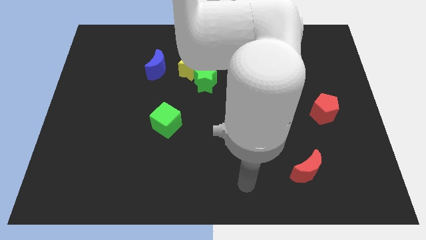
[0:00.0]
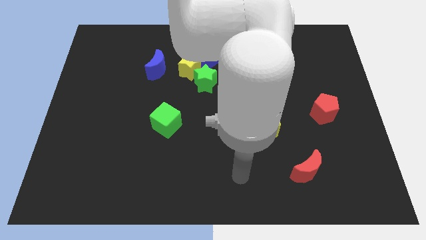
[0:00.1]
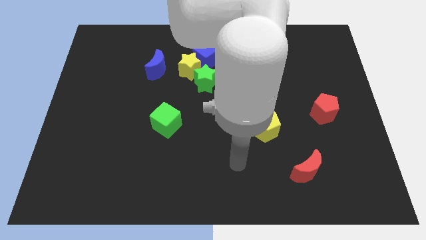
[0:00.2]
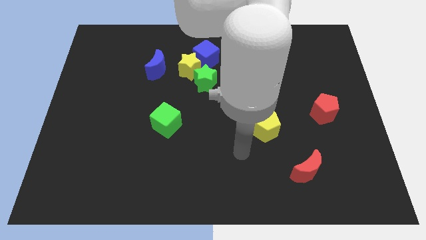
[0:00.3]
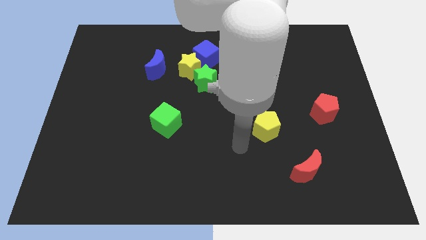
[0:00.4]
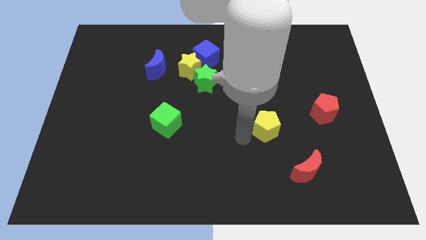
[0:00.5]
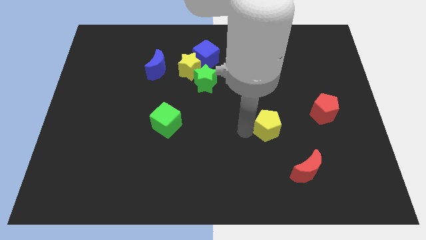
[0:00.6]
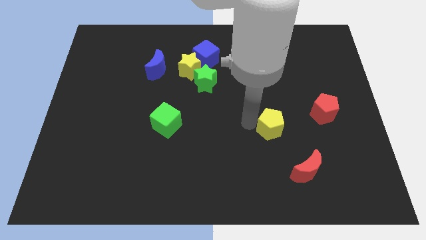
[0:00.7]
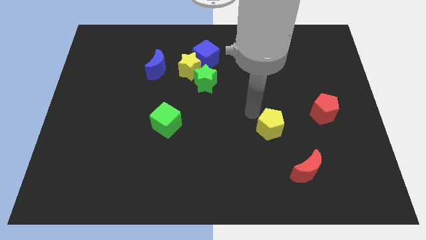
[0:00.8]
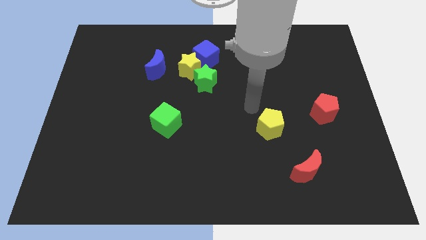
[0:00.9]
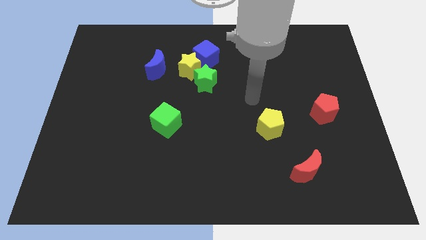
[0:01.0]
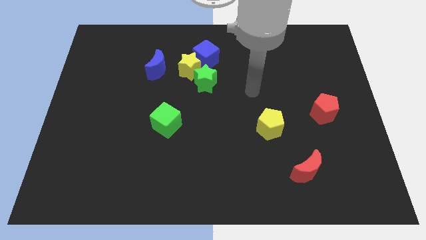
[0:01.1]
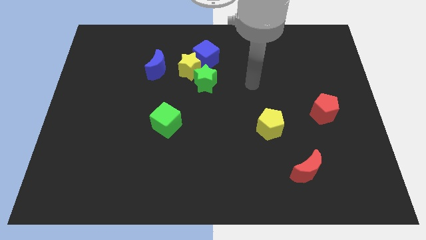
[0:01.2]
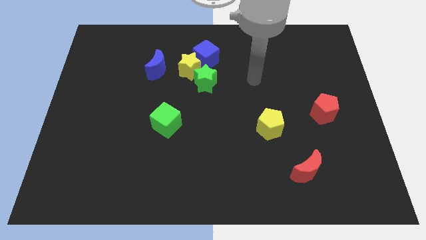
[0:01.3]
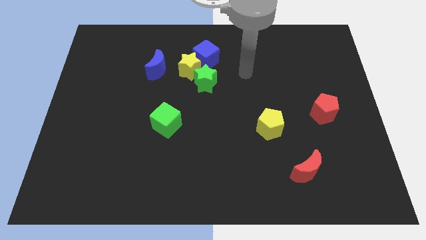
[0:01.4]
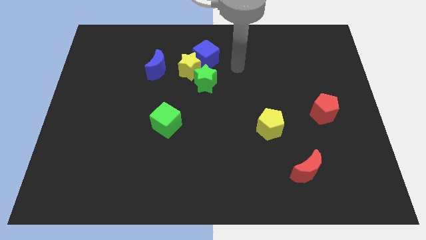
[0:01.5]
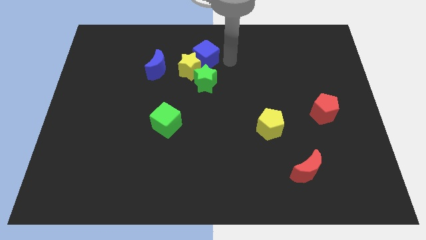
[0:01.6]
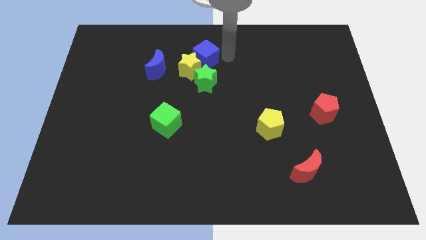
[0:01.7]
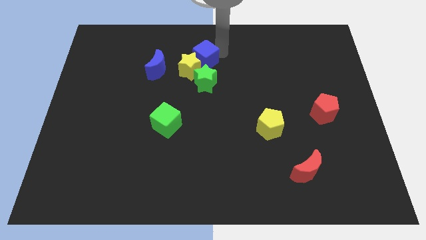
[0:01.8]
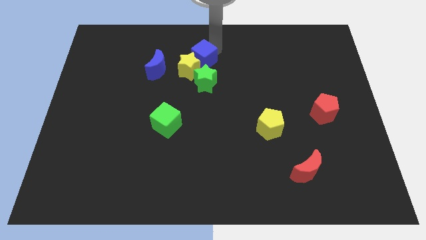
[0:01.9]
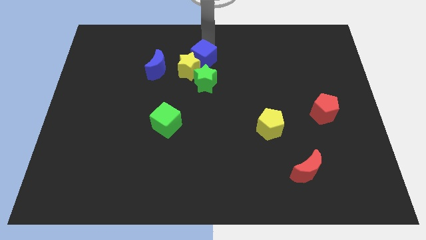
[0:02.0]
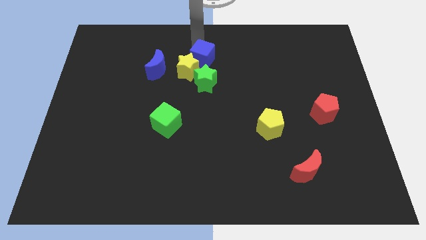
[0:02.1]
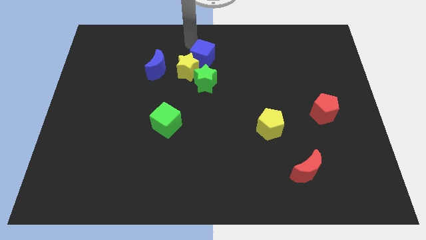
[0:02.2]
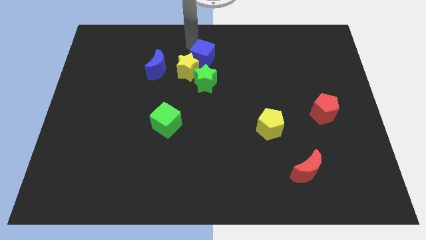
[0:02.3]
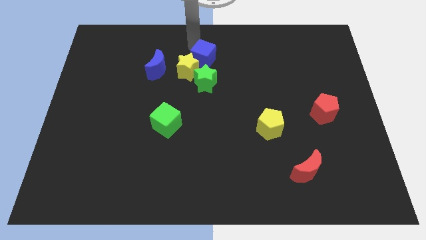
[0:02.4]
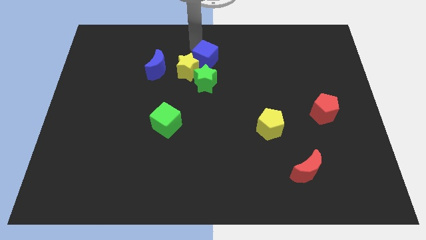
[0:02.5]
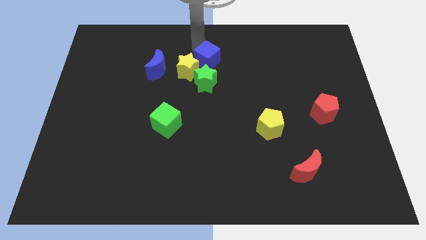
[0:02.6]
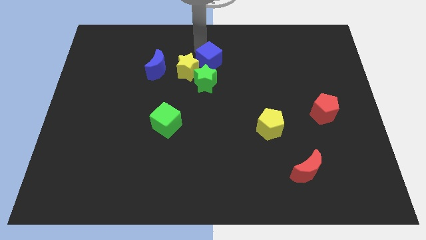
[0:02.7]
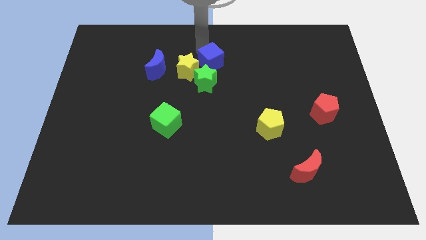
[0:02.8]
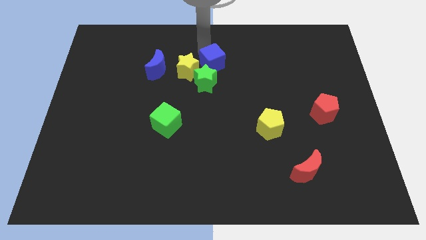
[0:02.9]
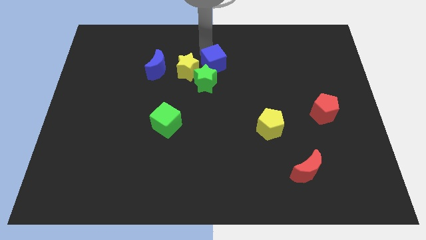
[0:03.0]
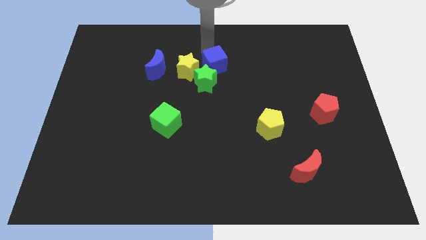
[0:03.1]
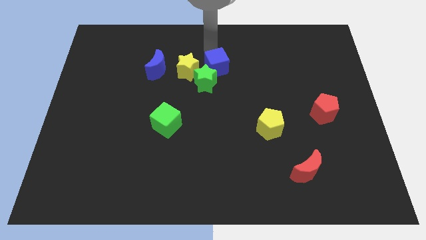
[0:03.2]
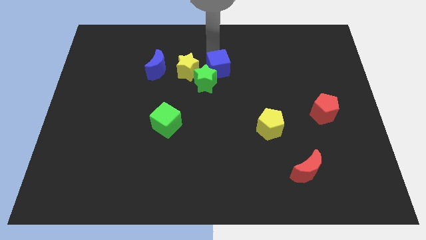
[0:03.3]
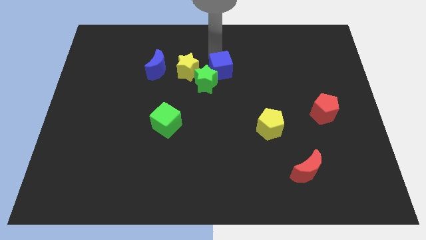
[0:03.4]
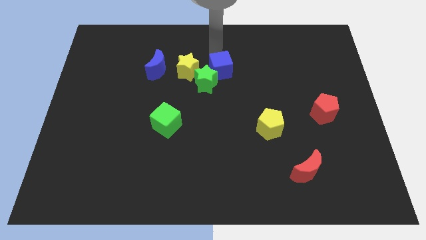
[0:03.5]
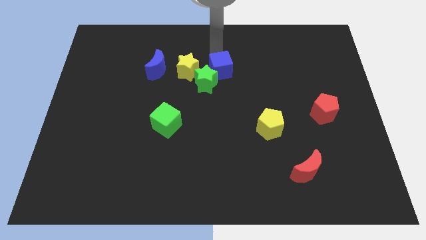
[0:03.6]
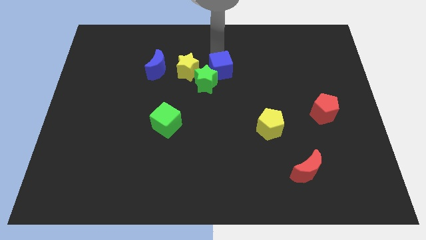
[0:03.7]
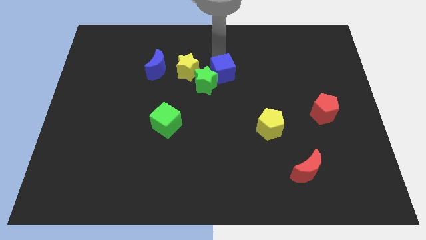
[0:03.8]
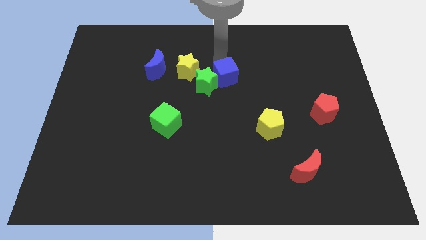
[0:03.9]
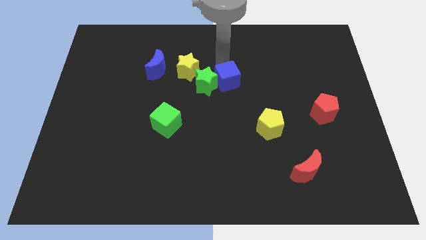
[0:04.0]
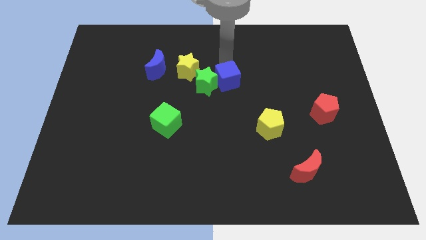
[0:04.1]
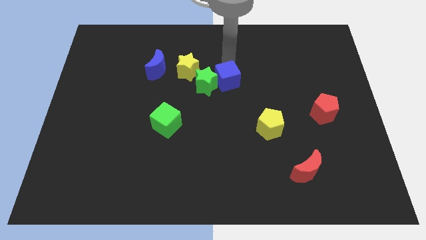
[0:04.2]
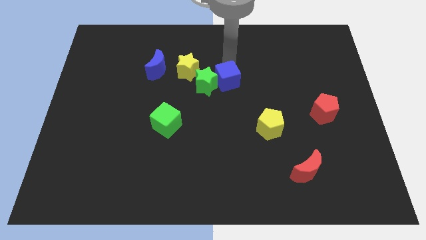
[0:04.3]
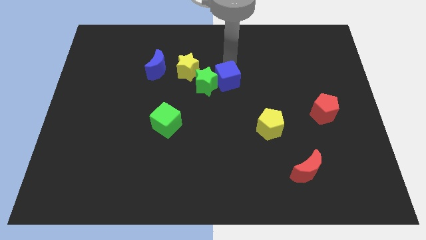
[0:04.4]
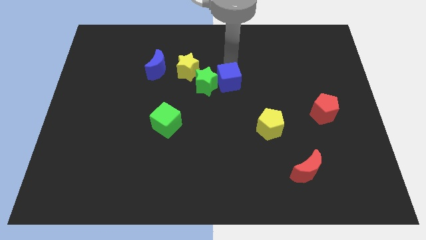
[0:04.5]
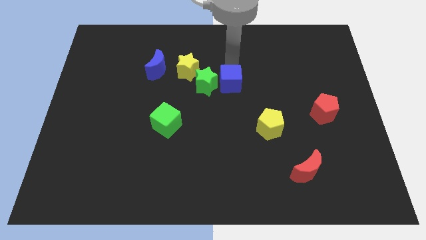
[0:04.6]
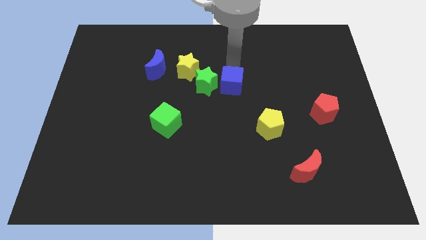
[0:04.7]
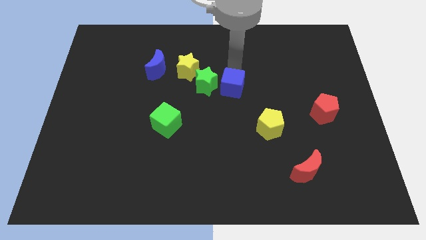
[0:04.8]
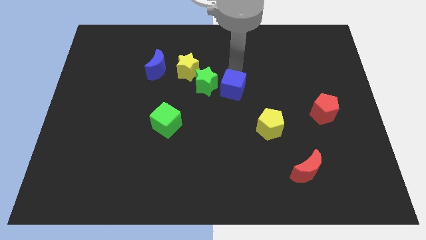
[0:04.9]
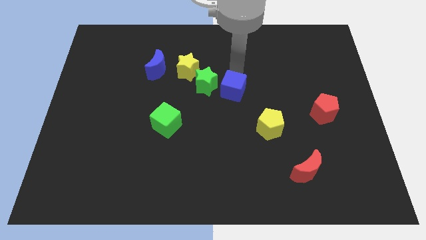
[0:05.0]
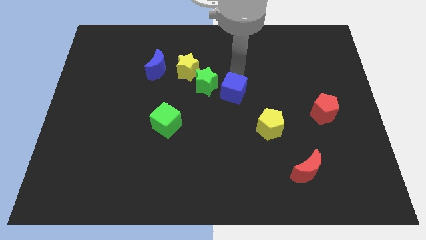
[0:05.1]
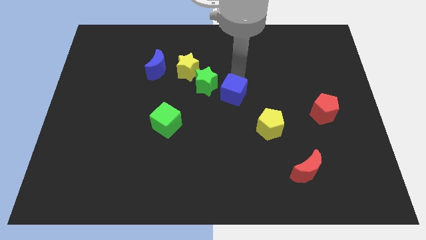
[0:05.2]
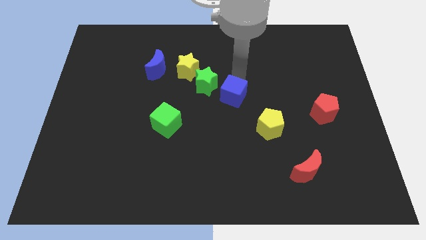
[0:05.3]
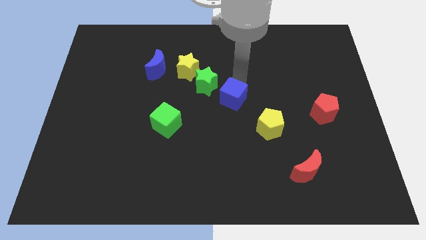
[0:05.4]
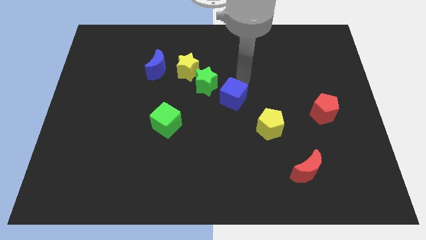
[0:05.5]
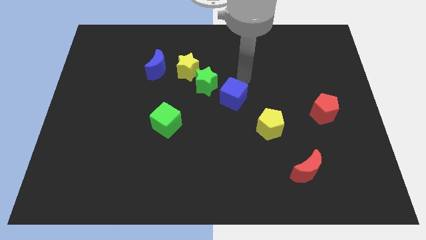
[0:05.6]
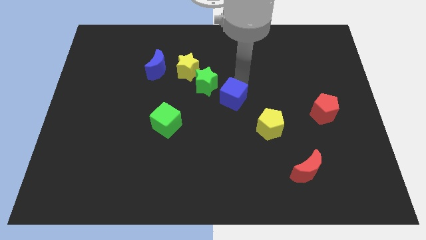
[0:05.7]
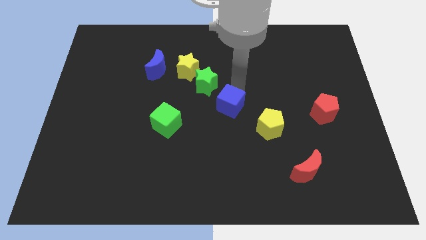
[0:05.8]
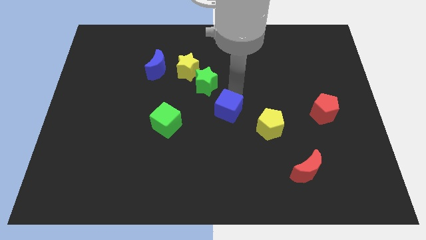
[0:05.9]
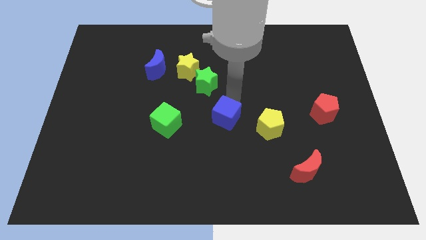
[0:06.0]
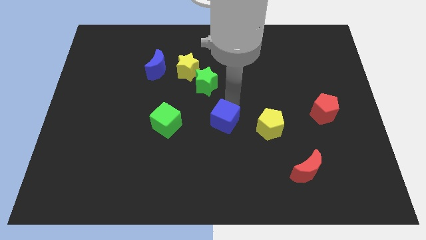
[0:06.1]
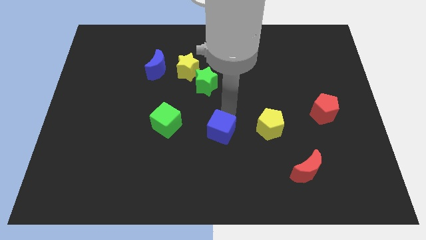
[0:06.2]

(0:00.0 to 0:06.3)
slide the blue cube down

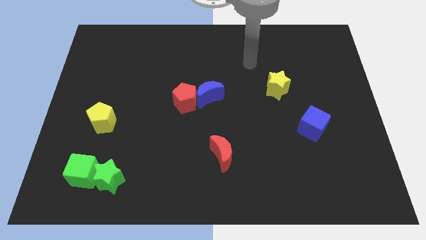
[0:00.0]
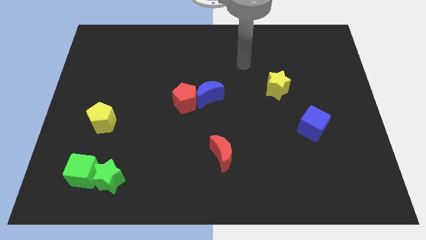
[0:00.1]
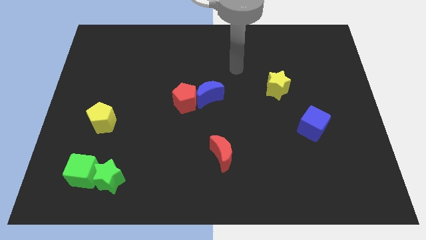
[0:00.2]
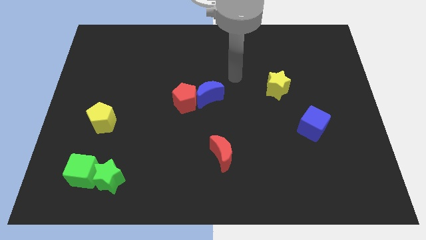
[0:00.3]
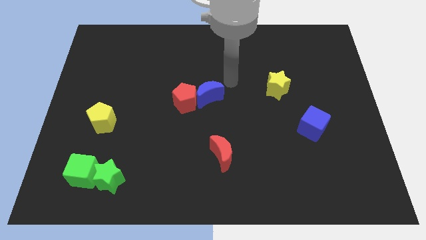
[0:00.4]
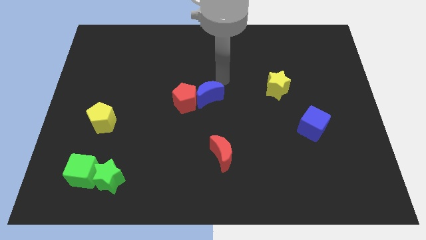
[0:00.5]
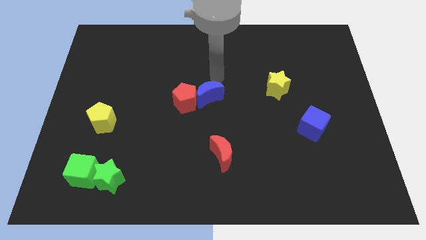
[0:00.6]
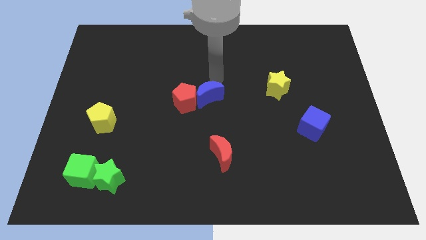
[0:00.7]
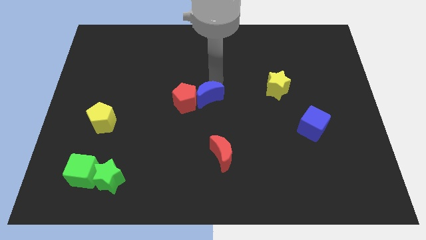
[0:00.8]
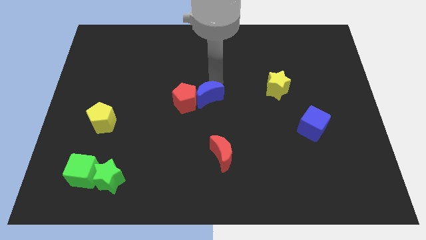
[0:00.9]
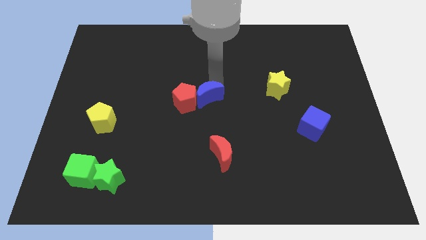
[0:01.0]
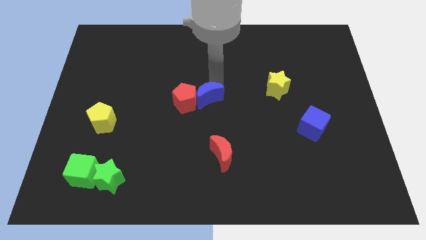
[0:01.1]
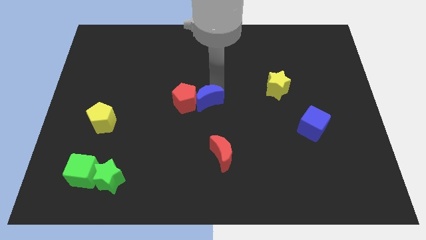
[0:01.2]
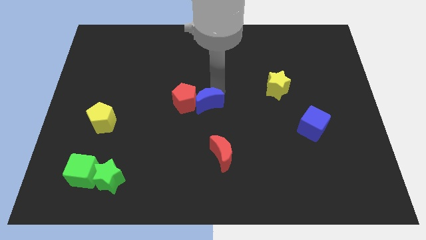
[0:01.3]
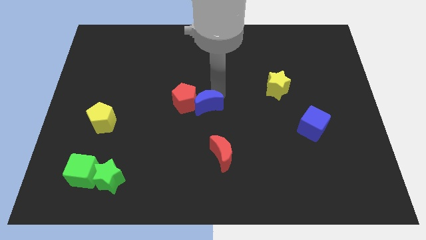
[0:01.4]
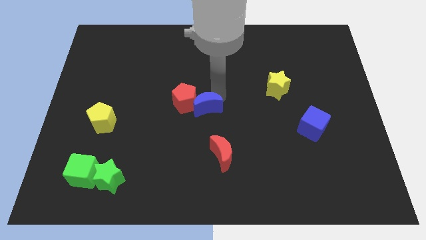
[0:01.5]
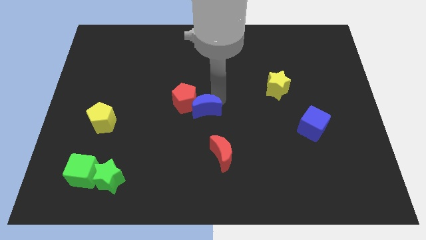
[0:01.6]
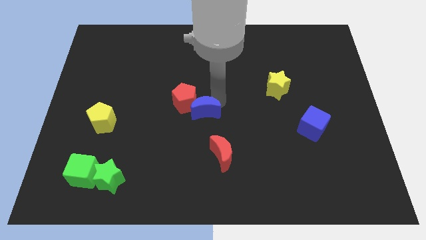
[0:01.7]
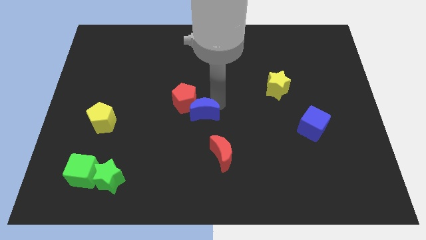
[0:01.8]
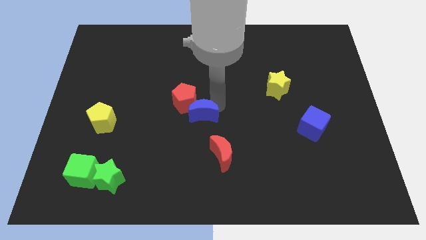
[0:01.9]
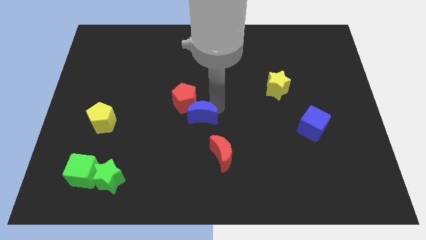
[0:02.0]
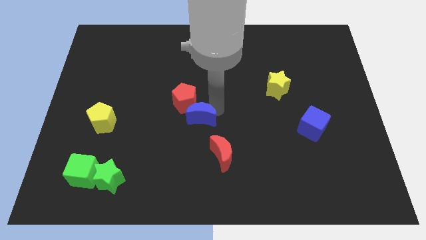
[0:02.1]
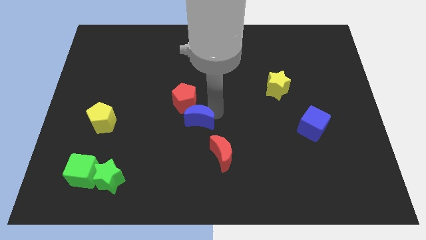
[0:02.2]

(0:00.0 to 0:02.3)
slide the blue moon down somewhat
